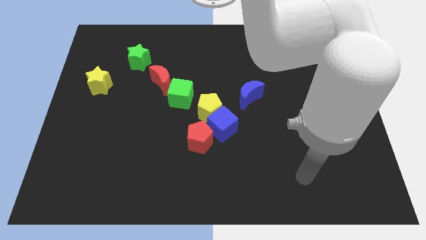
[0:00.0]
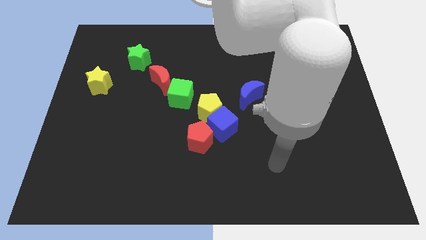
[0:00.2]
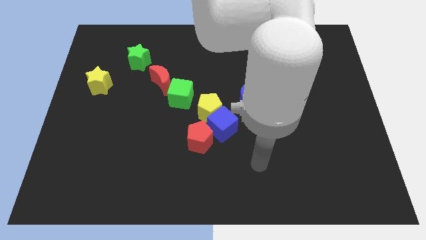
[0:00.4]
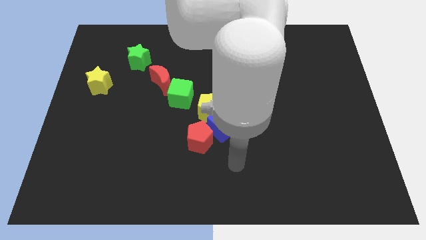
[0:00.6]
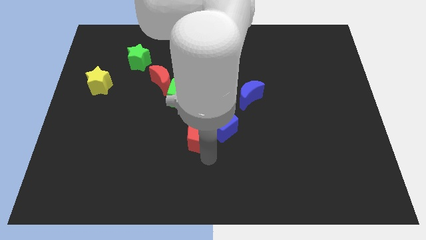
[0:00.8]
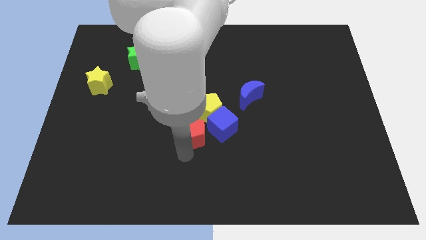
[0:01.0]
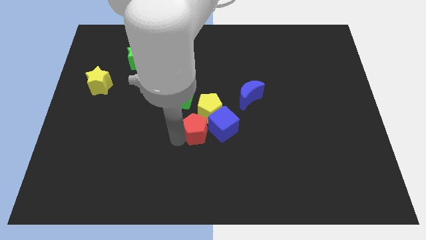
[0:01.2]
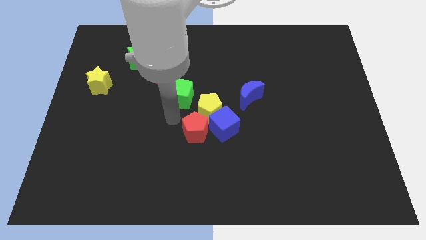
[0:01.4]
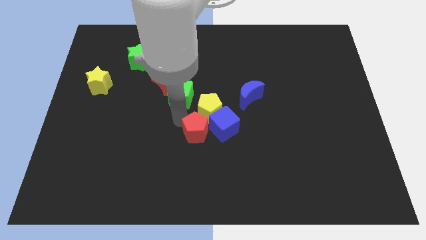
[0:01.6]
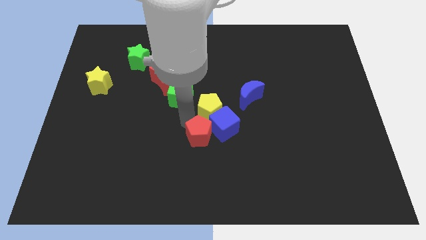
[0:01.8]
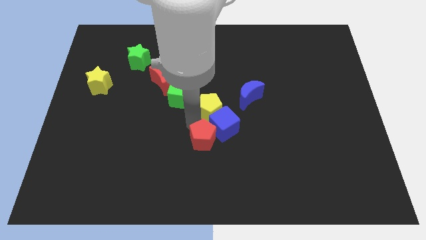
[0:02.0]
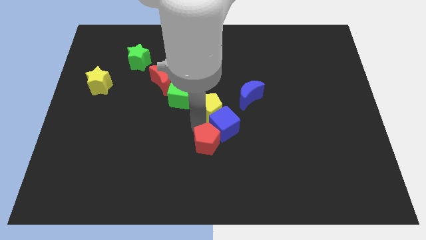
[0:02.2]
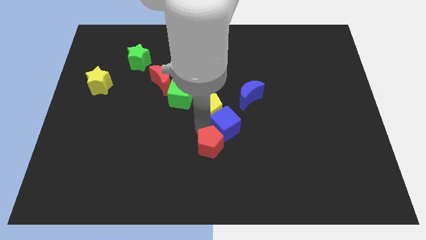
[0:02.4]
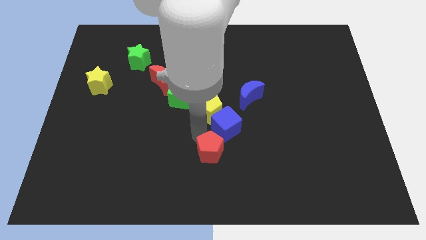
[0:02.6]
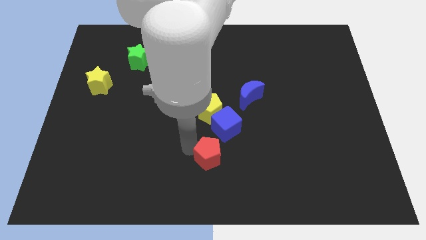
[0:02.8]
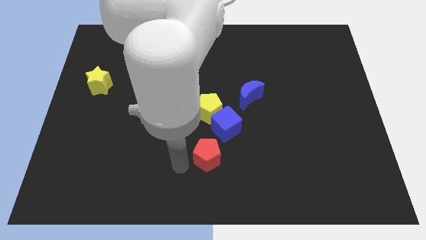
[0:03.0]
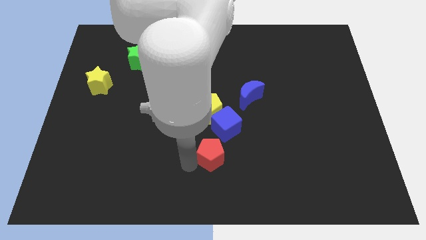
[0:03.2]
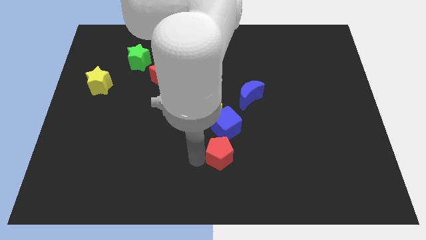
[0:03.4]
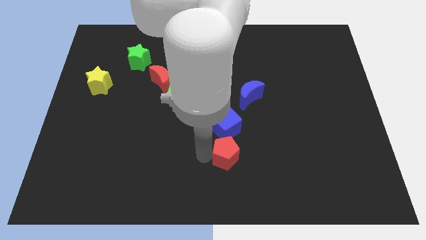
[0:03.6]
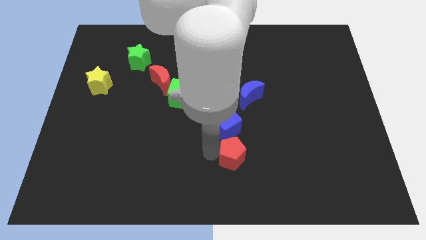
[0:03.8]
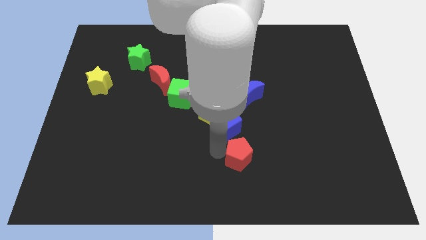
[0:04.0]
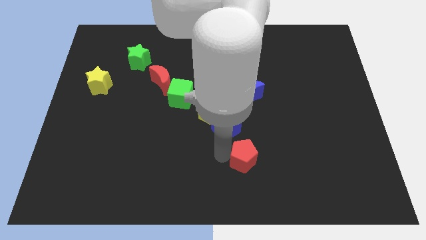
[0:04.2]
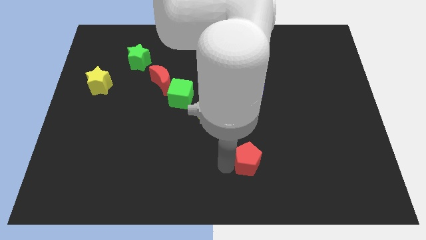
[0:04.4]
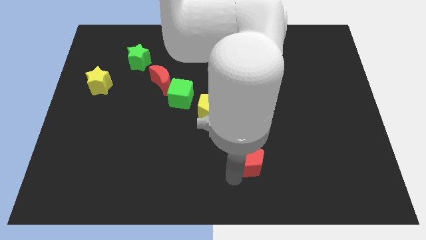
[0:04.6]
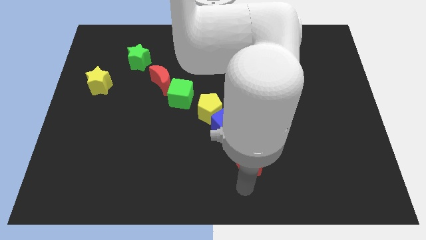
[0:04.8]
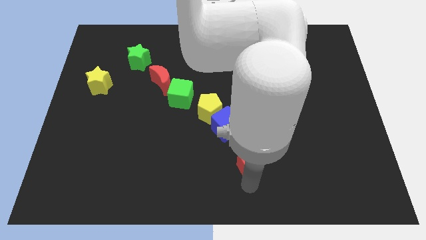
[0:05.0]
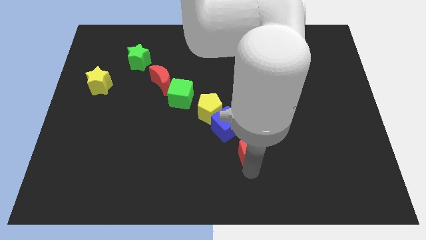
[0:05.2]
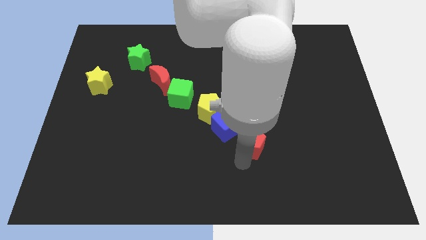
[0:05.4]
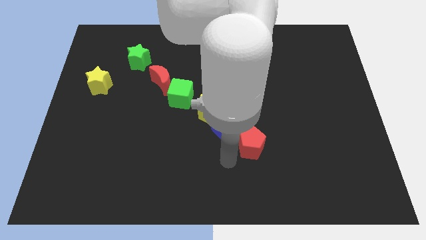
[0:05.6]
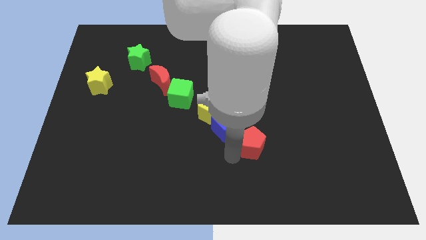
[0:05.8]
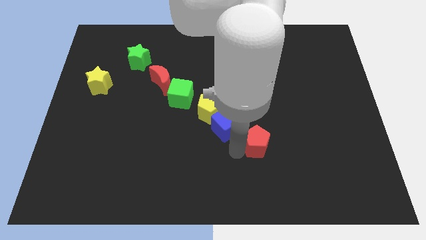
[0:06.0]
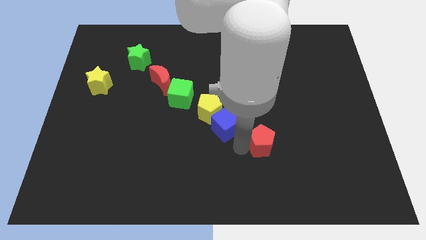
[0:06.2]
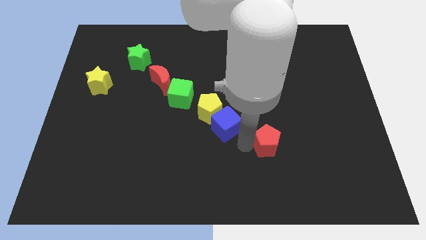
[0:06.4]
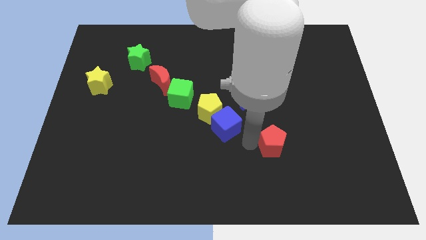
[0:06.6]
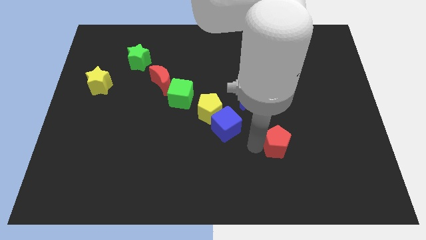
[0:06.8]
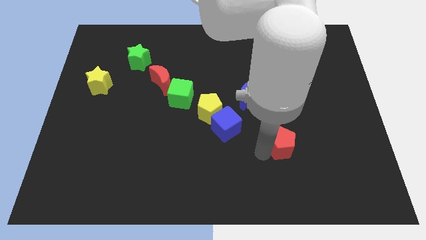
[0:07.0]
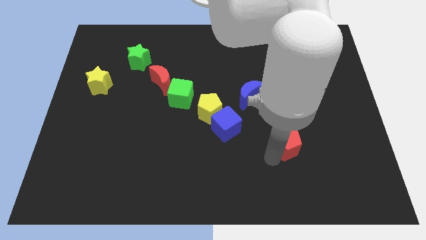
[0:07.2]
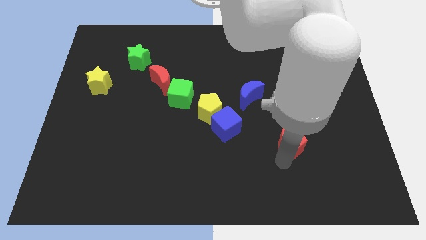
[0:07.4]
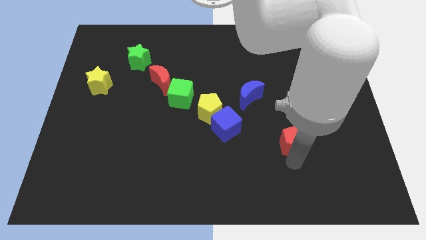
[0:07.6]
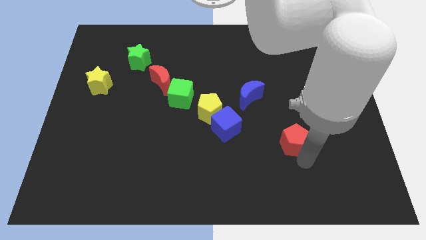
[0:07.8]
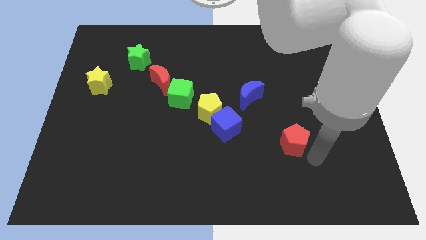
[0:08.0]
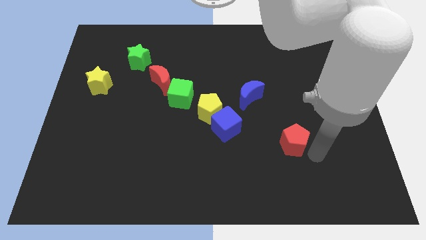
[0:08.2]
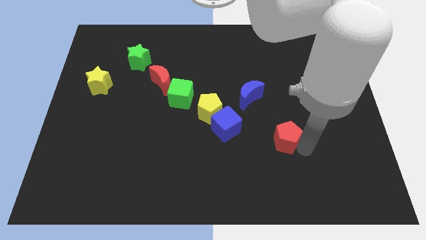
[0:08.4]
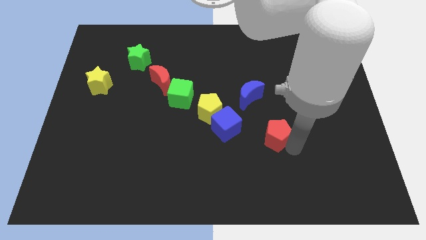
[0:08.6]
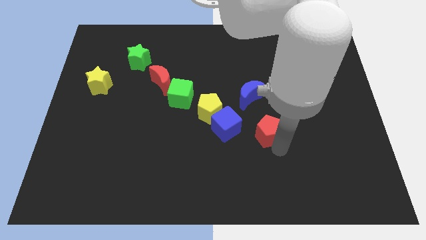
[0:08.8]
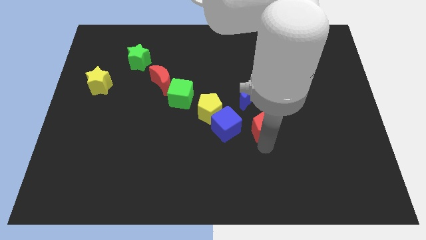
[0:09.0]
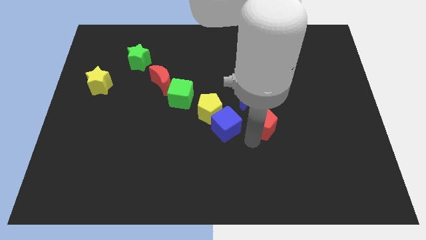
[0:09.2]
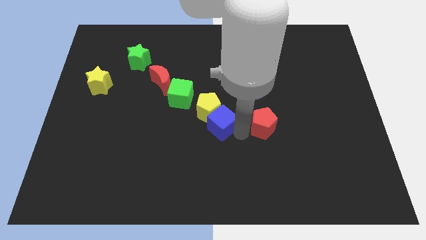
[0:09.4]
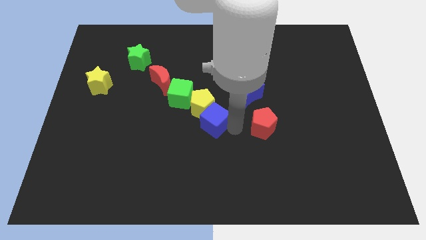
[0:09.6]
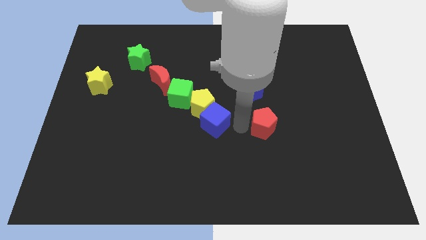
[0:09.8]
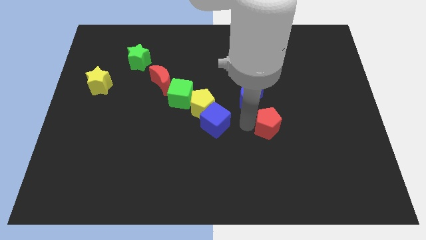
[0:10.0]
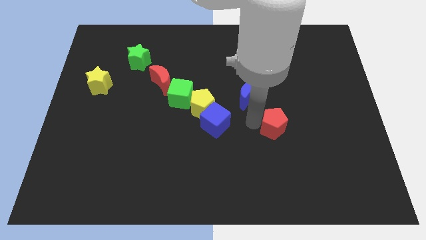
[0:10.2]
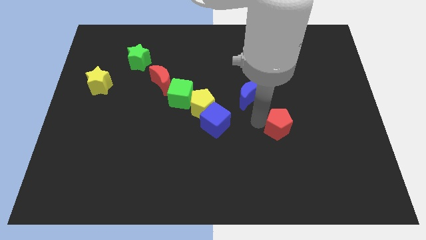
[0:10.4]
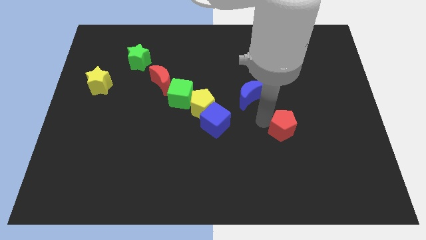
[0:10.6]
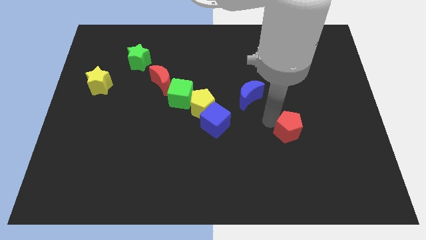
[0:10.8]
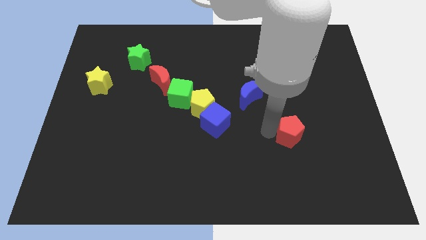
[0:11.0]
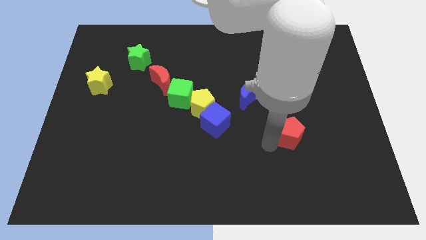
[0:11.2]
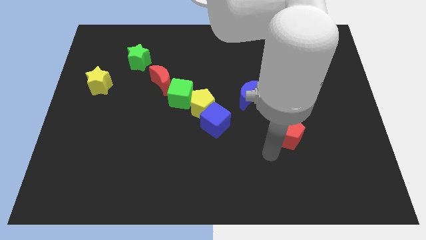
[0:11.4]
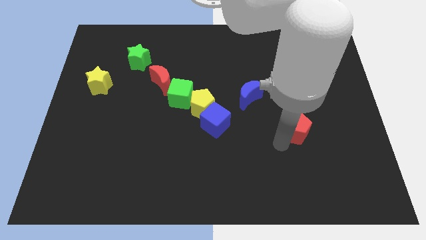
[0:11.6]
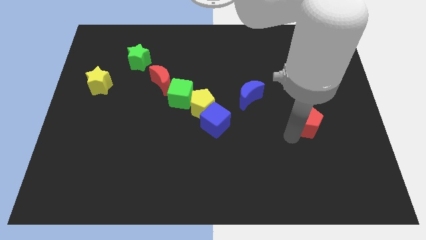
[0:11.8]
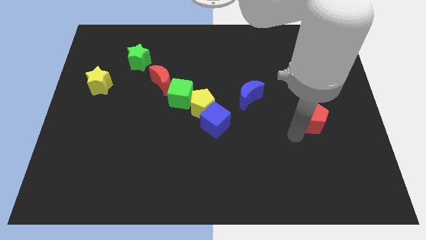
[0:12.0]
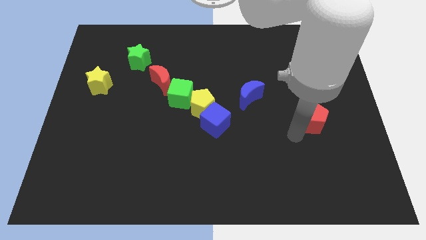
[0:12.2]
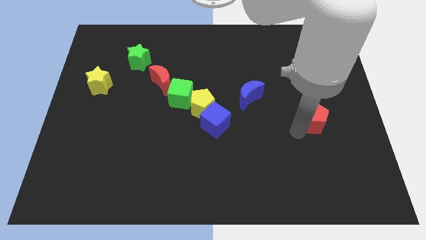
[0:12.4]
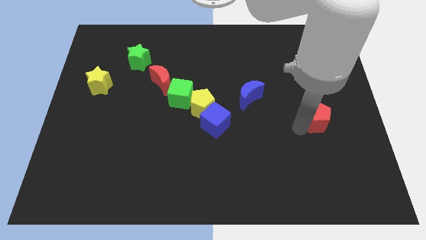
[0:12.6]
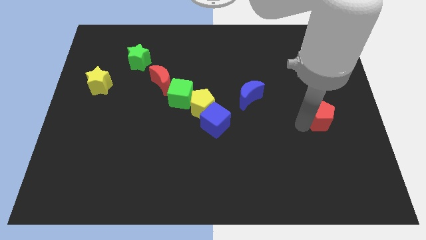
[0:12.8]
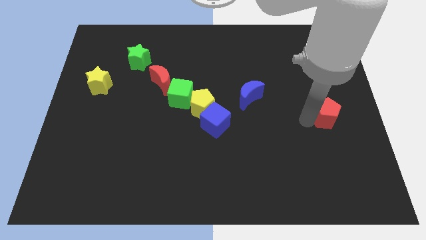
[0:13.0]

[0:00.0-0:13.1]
move the red pentagon to the center right
